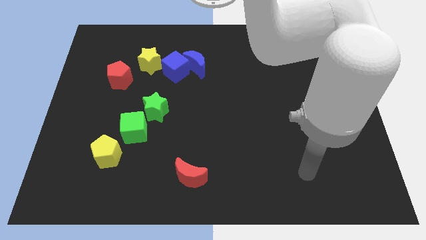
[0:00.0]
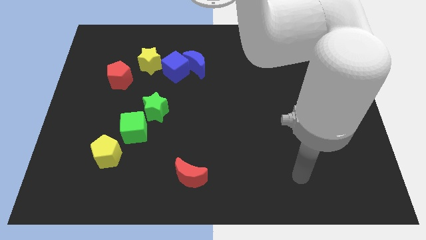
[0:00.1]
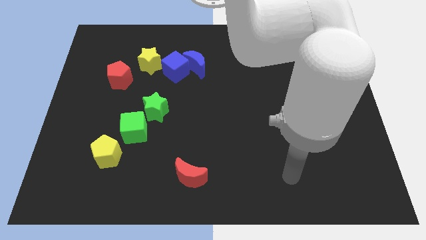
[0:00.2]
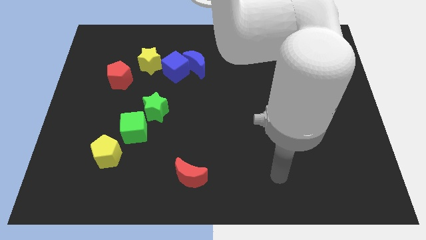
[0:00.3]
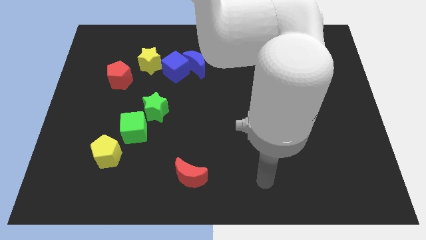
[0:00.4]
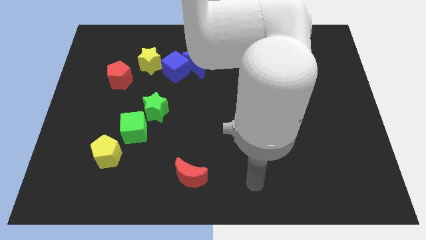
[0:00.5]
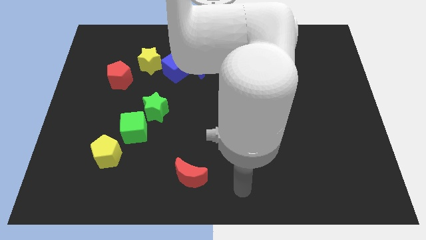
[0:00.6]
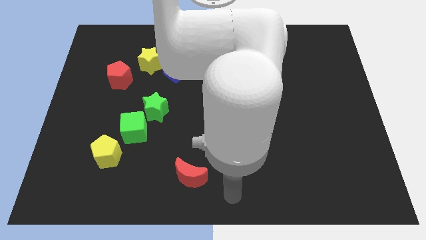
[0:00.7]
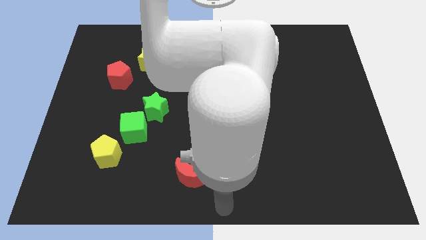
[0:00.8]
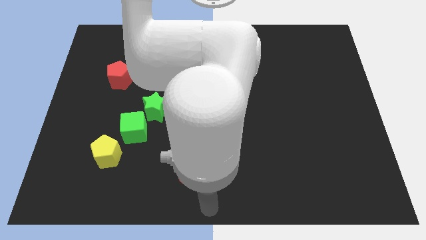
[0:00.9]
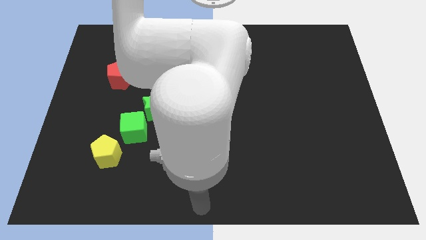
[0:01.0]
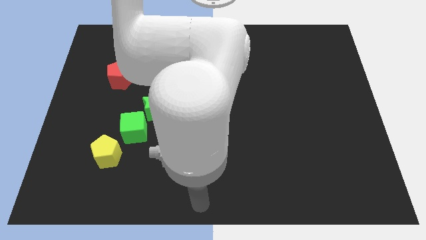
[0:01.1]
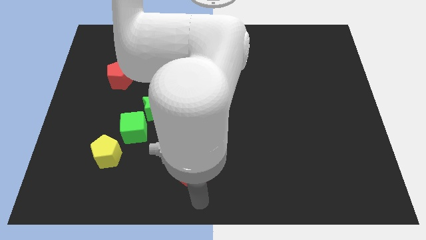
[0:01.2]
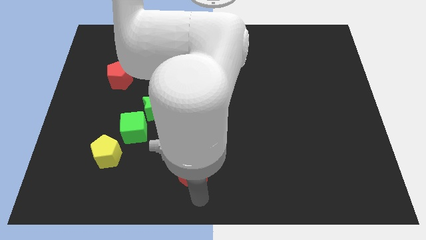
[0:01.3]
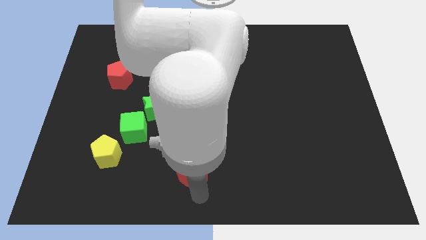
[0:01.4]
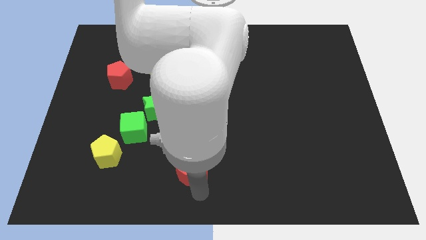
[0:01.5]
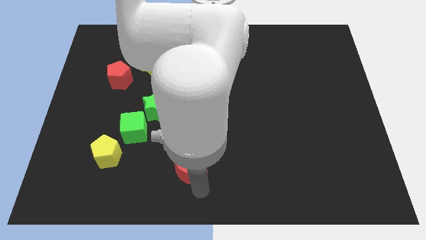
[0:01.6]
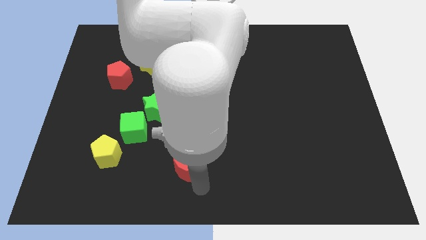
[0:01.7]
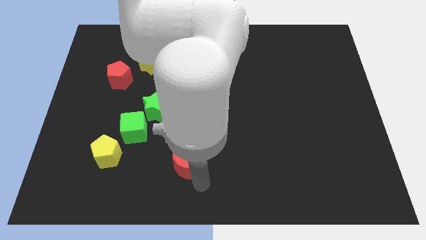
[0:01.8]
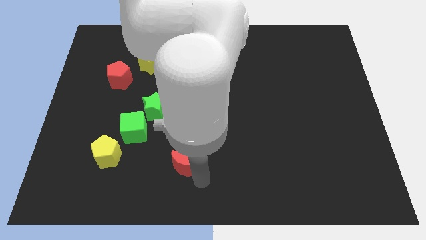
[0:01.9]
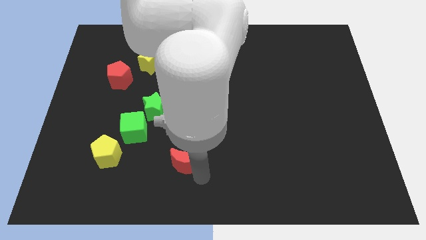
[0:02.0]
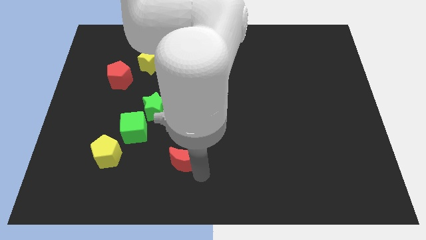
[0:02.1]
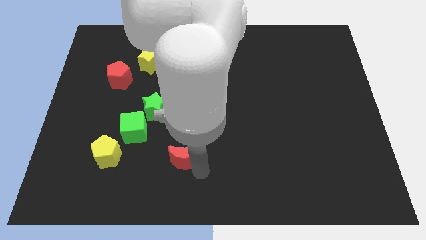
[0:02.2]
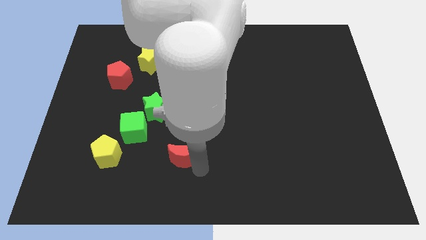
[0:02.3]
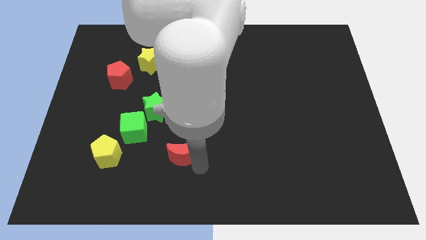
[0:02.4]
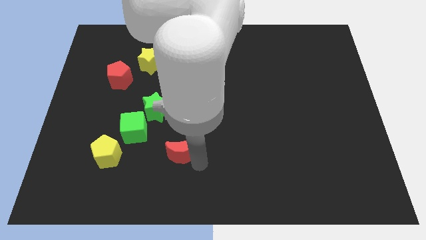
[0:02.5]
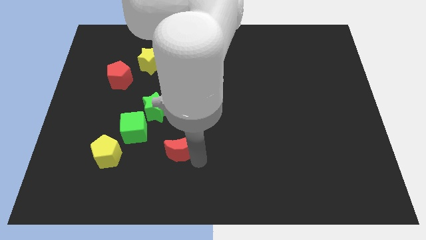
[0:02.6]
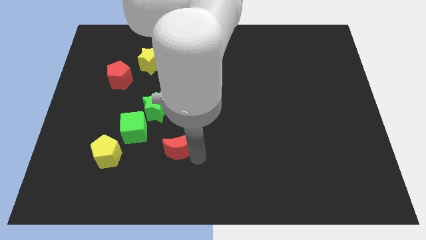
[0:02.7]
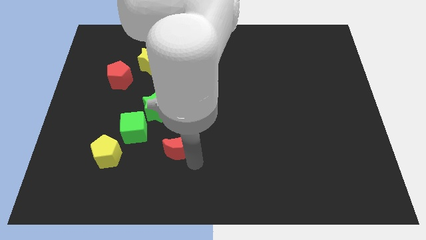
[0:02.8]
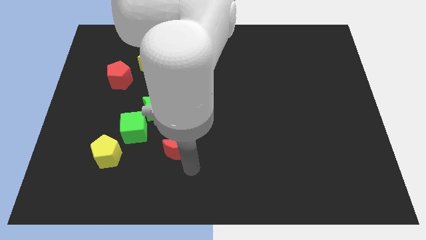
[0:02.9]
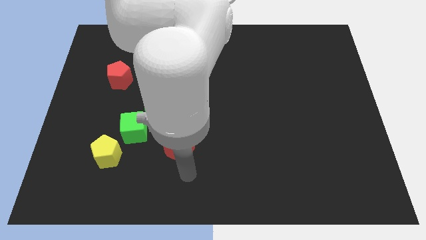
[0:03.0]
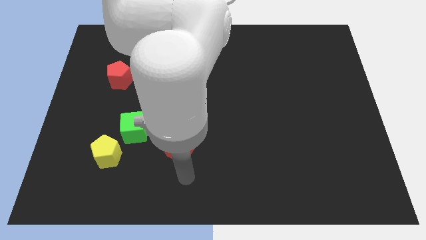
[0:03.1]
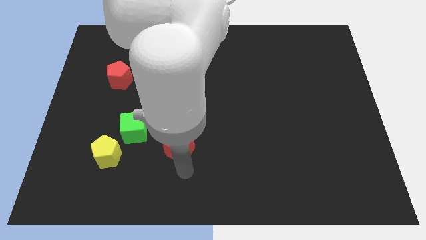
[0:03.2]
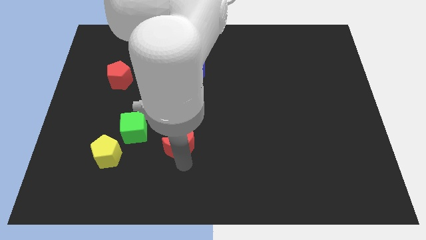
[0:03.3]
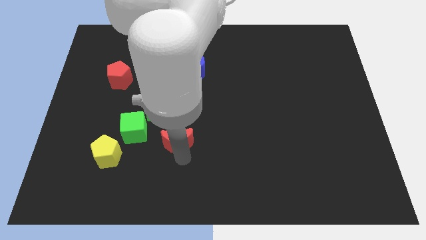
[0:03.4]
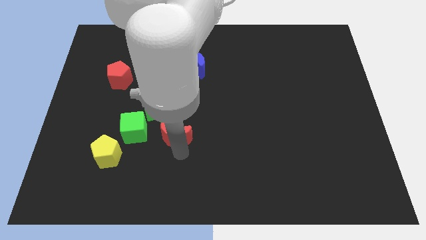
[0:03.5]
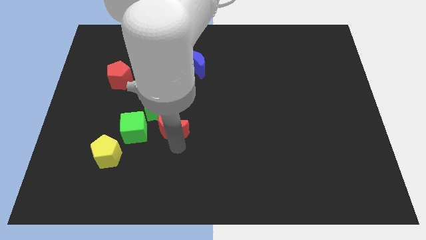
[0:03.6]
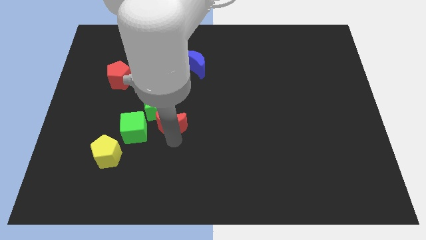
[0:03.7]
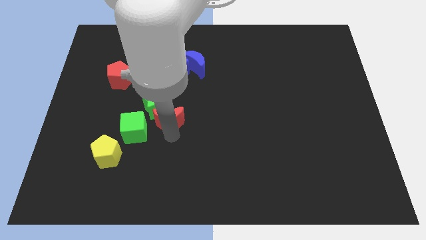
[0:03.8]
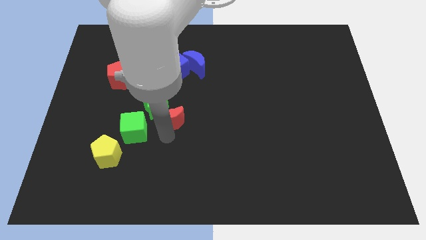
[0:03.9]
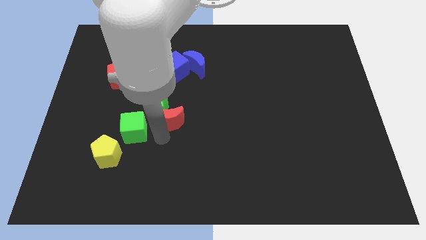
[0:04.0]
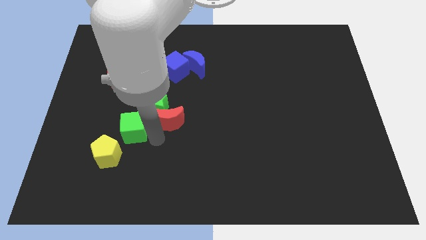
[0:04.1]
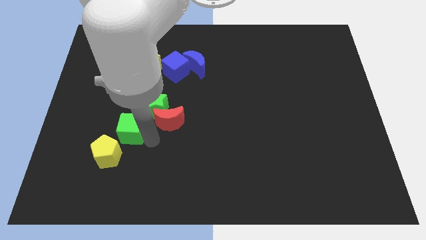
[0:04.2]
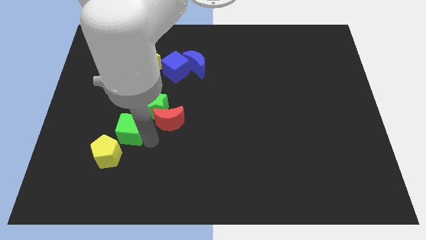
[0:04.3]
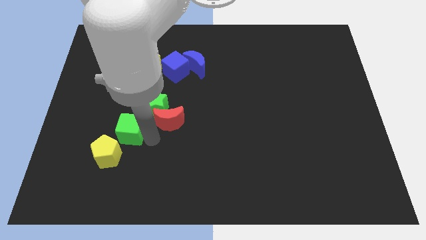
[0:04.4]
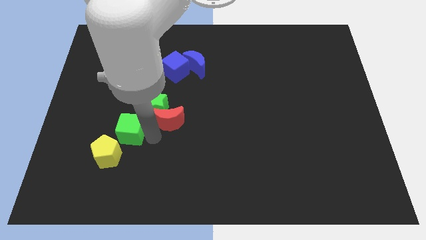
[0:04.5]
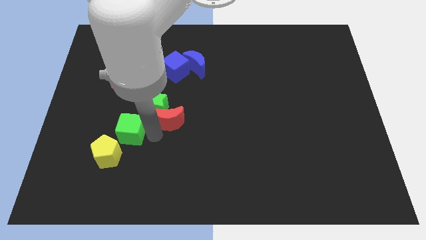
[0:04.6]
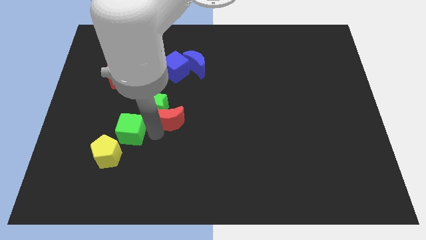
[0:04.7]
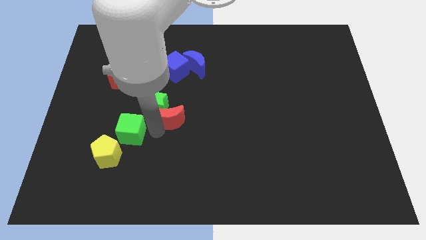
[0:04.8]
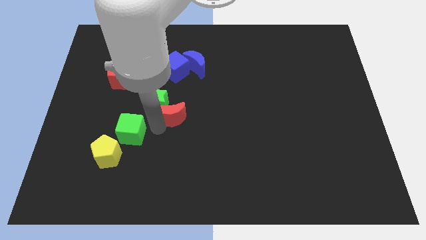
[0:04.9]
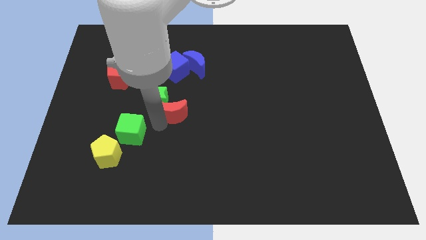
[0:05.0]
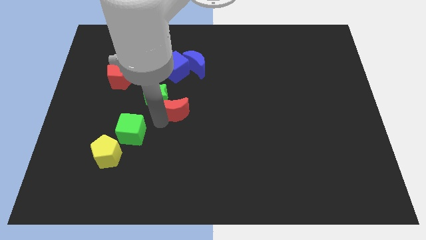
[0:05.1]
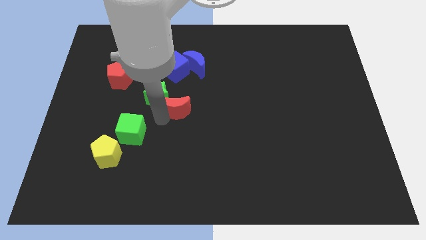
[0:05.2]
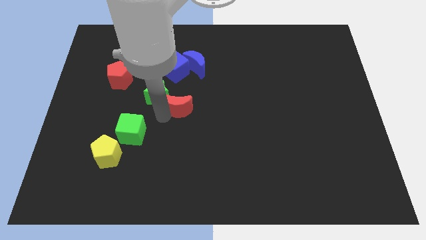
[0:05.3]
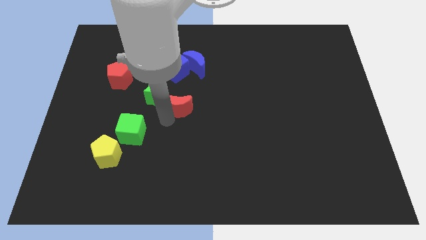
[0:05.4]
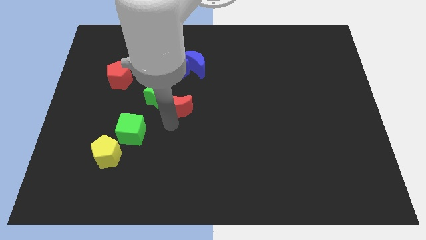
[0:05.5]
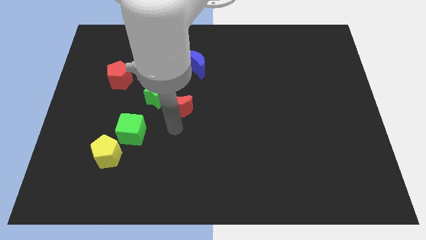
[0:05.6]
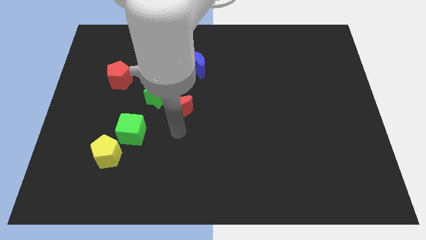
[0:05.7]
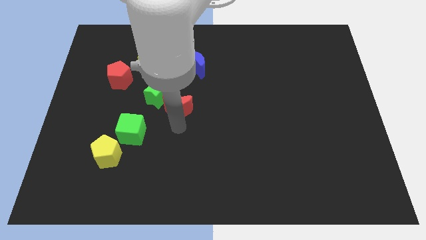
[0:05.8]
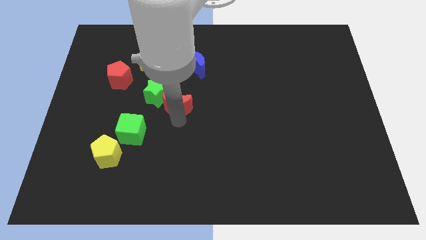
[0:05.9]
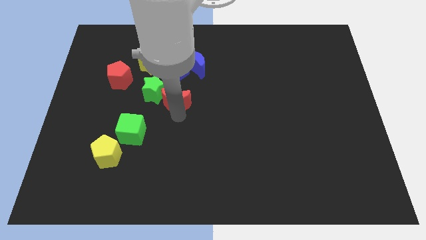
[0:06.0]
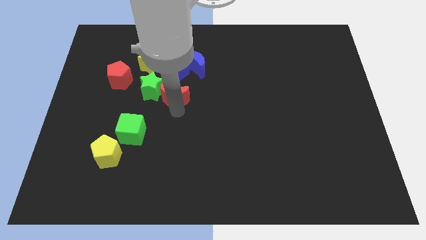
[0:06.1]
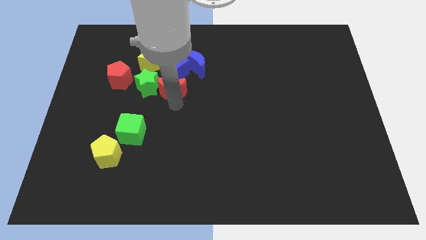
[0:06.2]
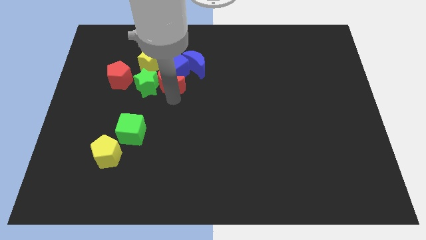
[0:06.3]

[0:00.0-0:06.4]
put the red moon next to the blue cube

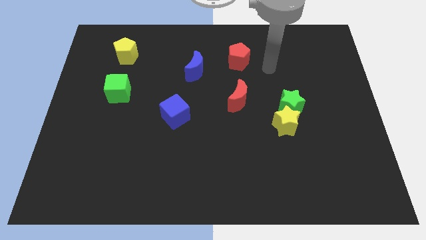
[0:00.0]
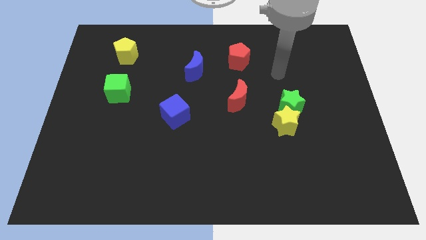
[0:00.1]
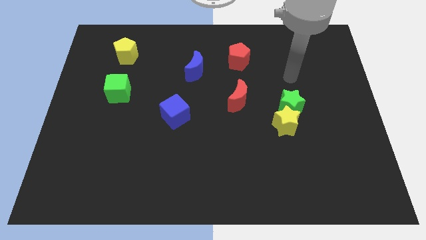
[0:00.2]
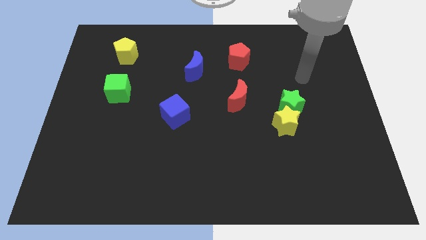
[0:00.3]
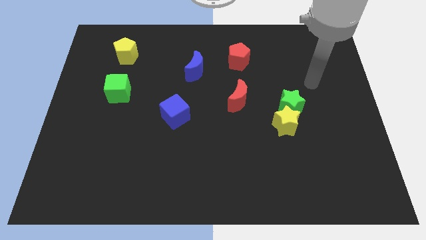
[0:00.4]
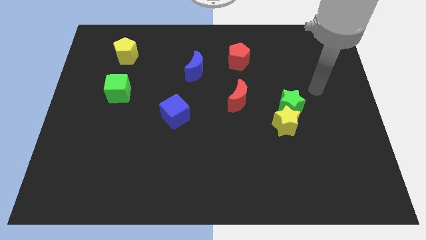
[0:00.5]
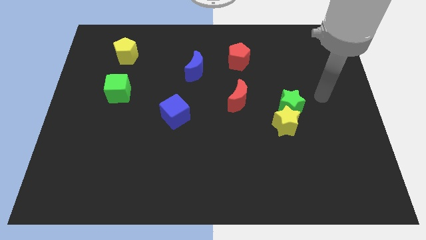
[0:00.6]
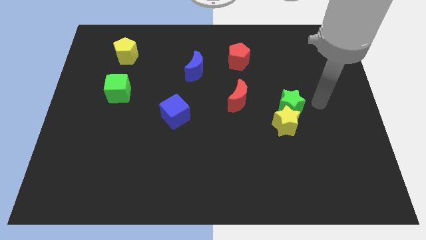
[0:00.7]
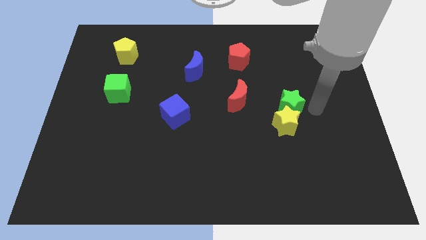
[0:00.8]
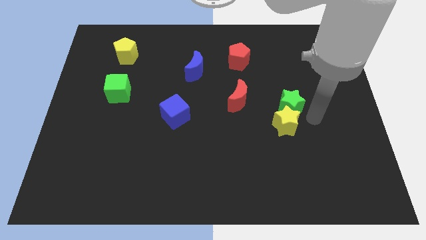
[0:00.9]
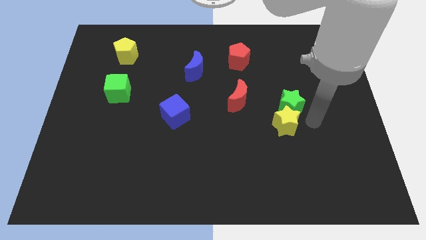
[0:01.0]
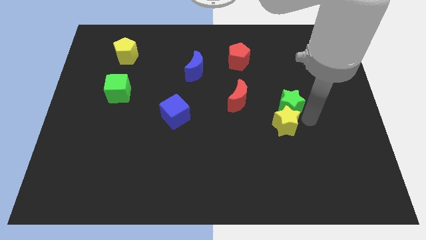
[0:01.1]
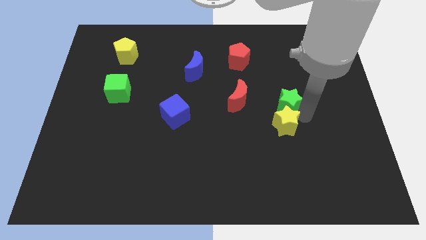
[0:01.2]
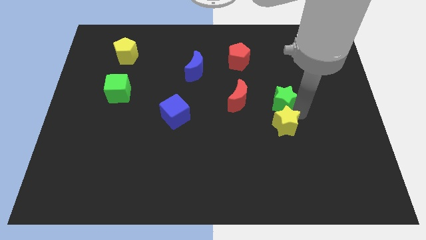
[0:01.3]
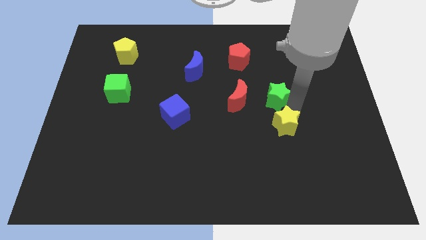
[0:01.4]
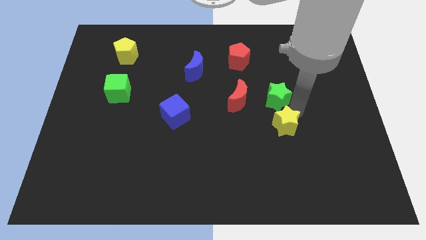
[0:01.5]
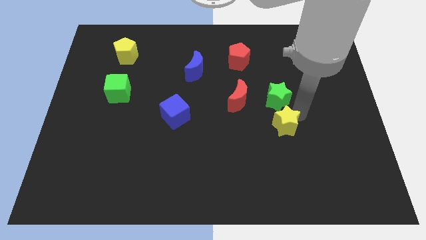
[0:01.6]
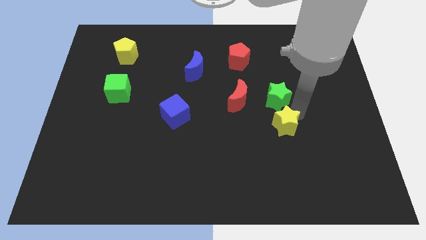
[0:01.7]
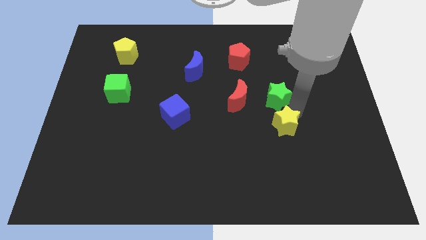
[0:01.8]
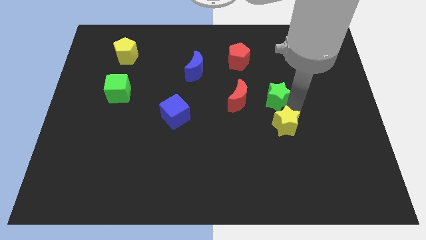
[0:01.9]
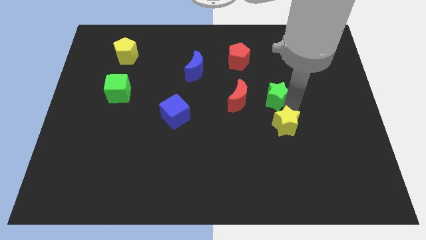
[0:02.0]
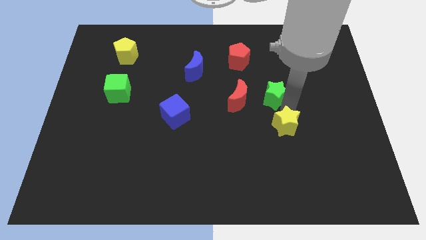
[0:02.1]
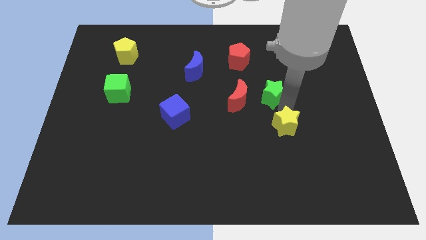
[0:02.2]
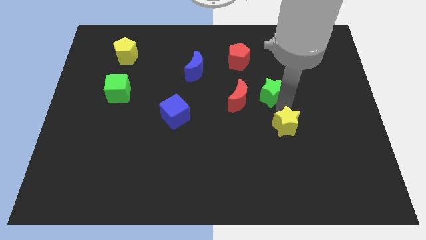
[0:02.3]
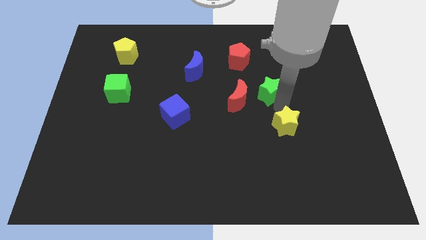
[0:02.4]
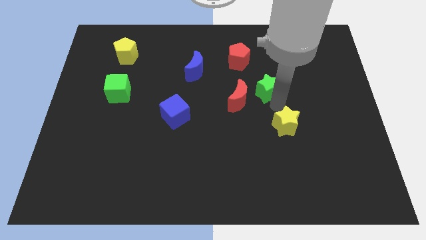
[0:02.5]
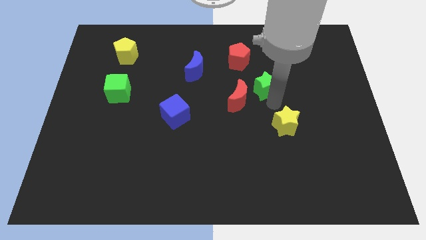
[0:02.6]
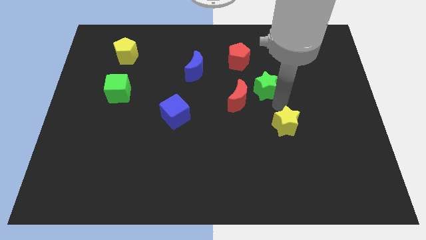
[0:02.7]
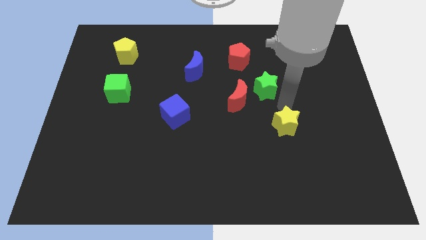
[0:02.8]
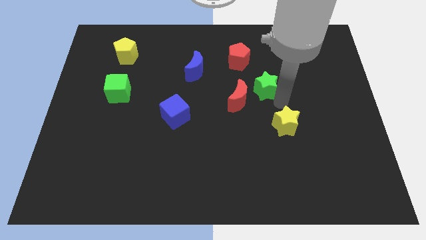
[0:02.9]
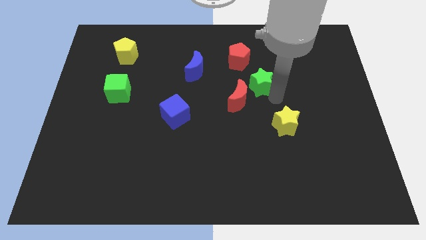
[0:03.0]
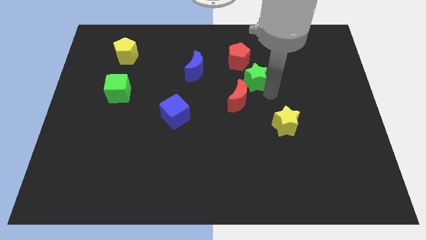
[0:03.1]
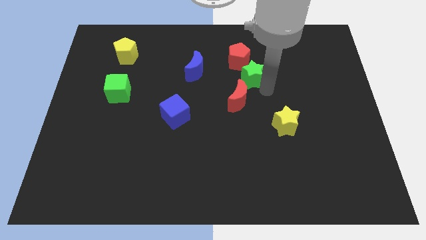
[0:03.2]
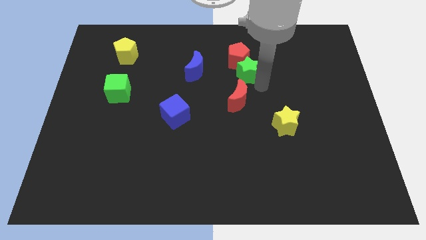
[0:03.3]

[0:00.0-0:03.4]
move the green star to the red pentagon
